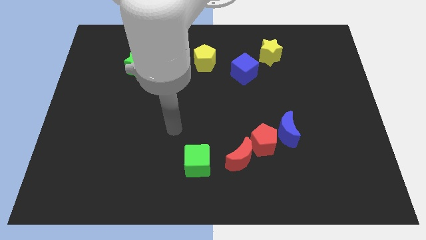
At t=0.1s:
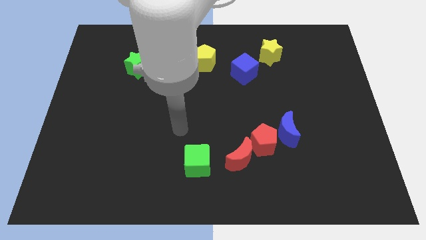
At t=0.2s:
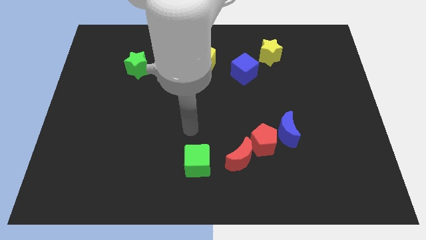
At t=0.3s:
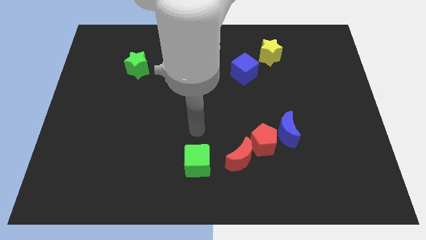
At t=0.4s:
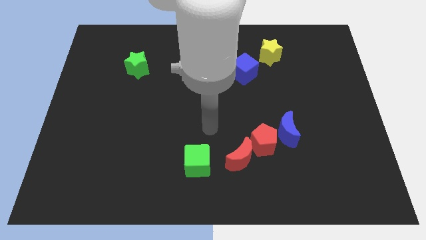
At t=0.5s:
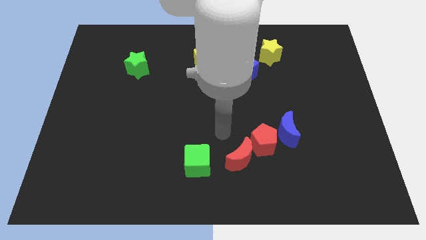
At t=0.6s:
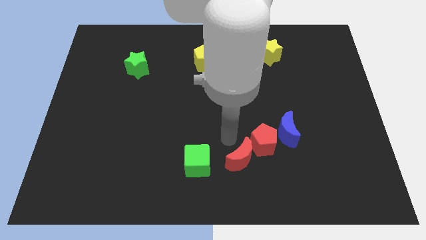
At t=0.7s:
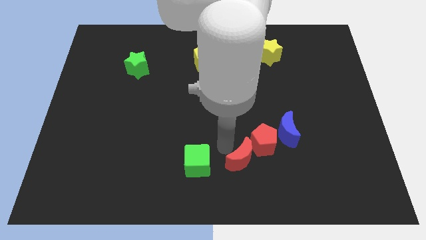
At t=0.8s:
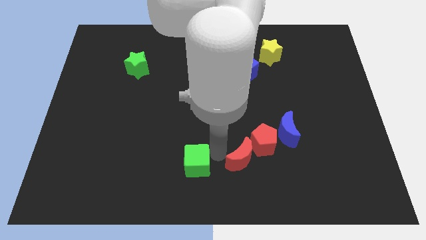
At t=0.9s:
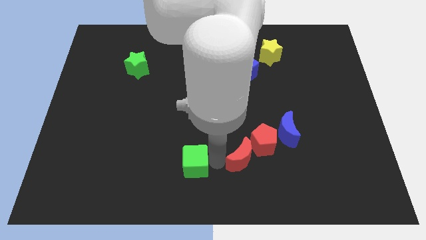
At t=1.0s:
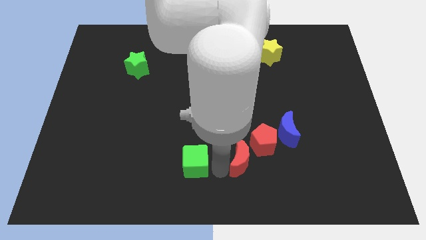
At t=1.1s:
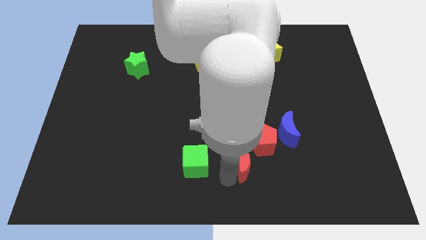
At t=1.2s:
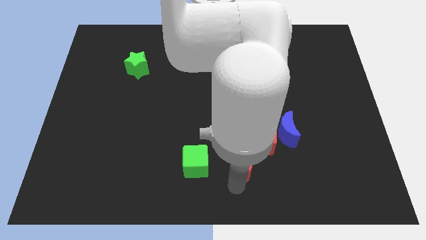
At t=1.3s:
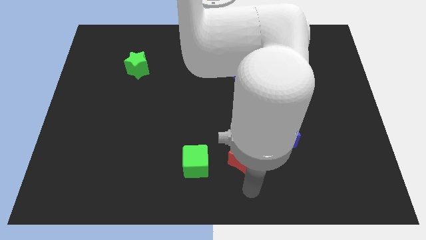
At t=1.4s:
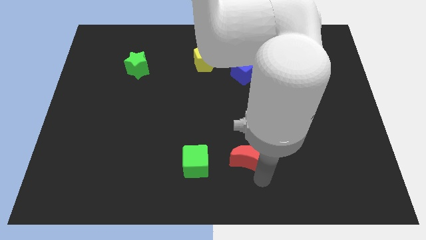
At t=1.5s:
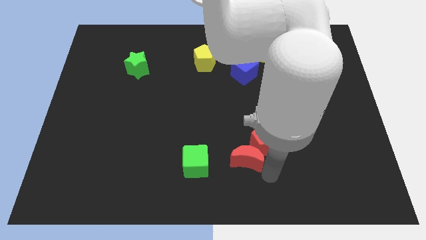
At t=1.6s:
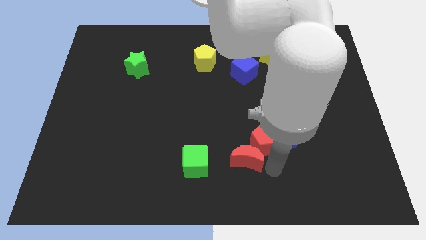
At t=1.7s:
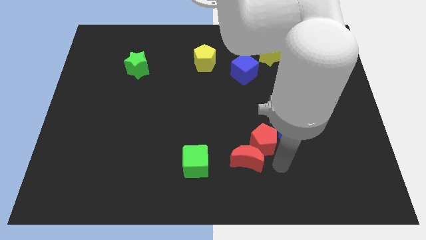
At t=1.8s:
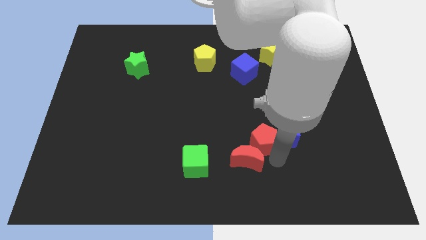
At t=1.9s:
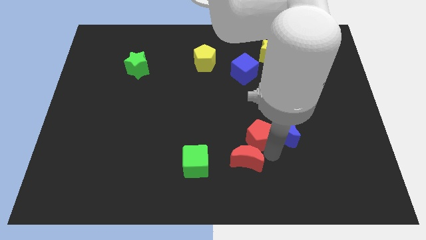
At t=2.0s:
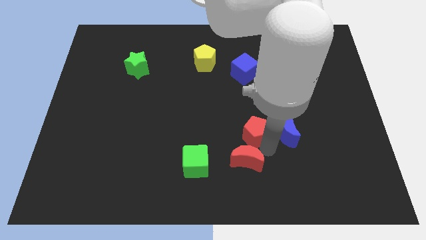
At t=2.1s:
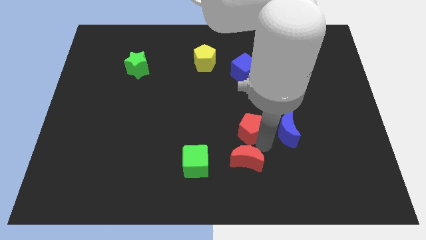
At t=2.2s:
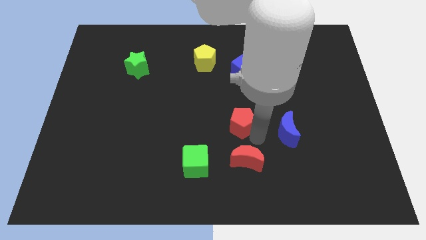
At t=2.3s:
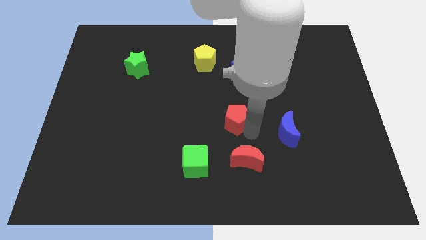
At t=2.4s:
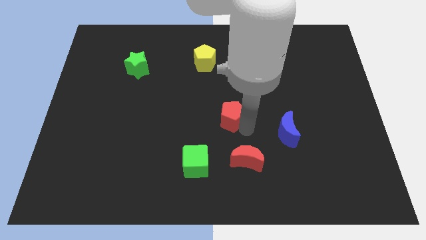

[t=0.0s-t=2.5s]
pull the red pentagon apart from the red moon and blue moon

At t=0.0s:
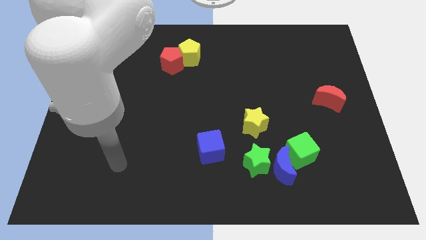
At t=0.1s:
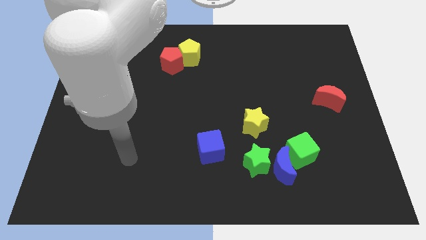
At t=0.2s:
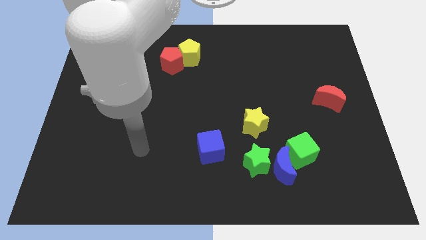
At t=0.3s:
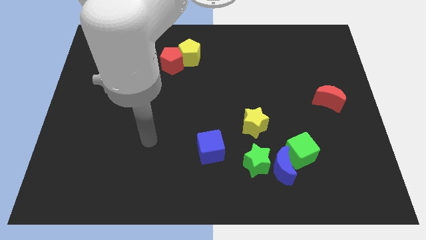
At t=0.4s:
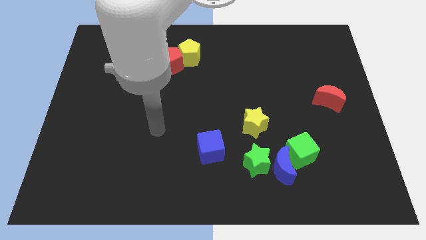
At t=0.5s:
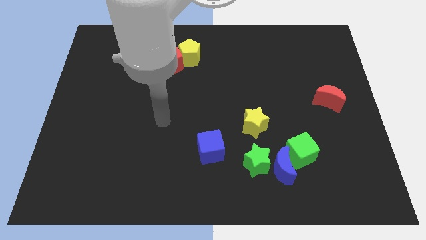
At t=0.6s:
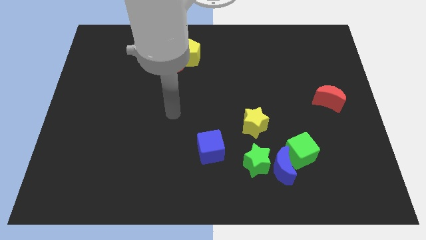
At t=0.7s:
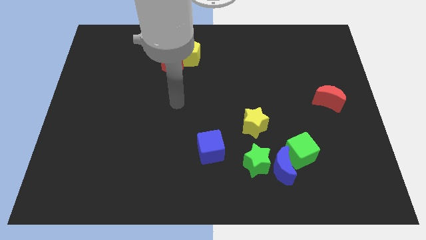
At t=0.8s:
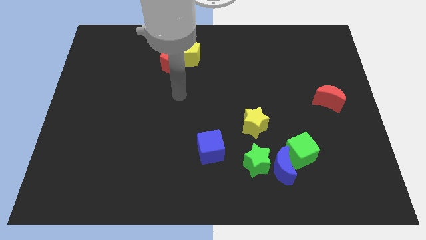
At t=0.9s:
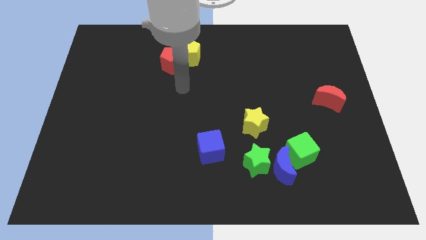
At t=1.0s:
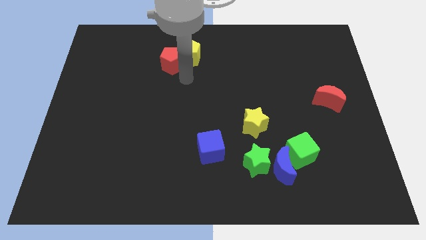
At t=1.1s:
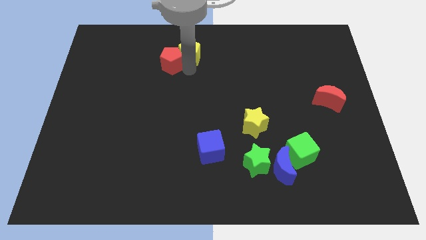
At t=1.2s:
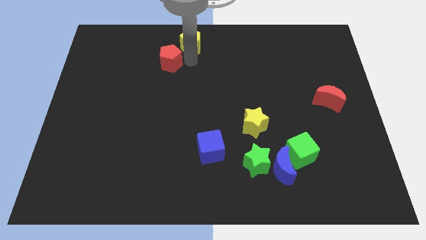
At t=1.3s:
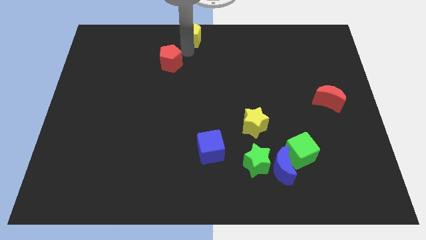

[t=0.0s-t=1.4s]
separate the red pentagon from the yellow pentagon

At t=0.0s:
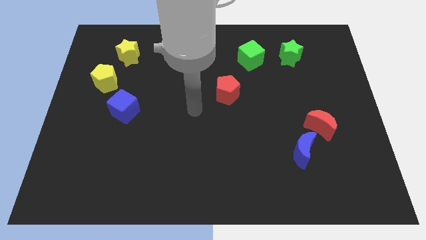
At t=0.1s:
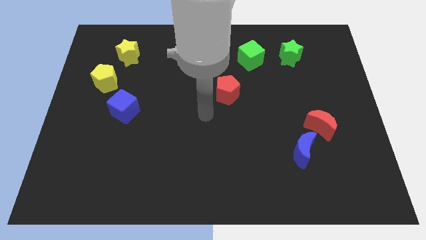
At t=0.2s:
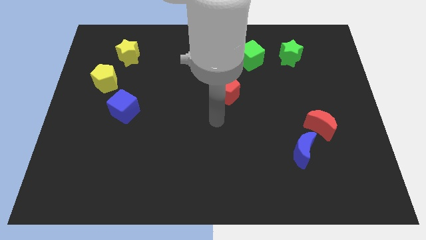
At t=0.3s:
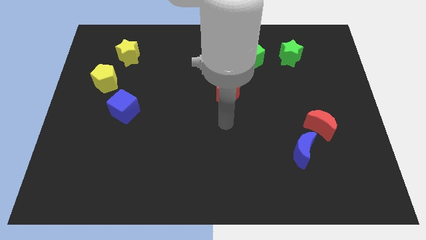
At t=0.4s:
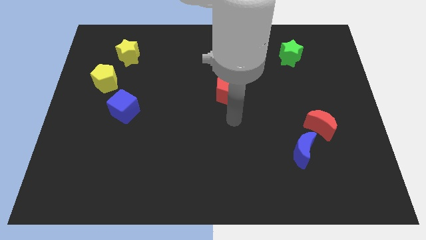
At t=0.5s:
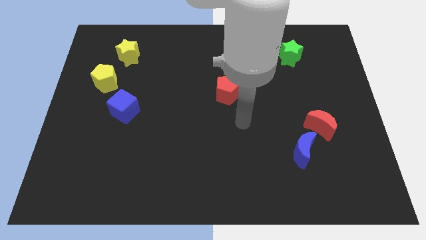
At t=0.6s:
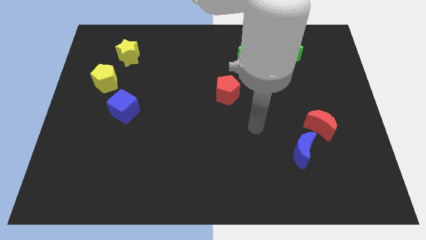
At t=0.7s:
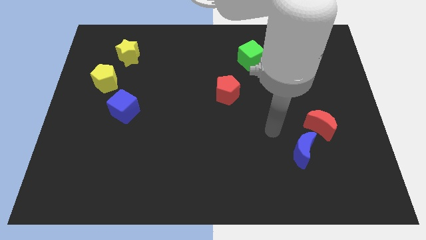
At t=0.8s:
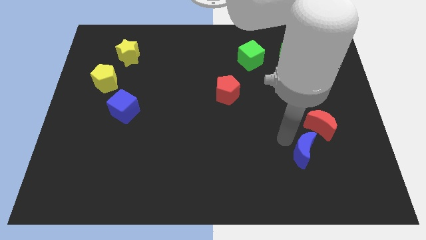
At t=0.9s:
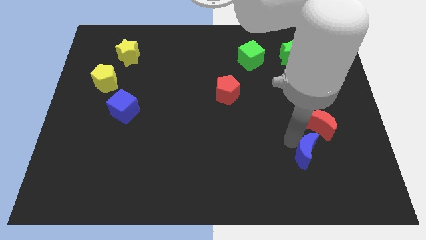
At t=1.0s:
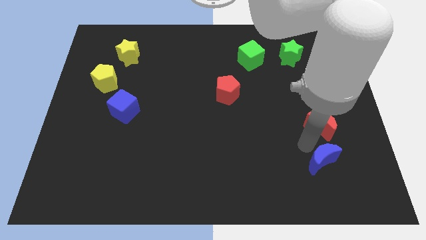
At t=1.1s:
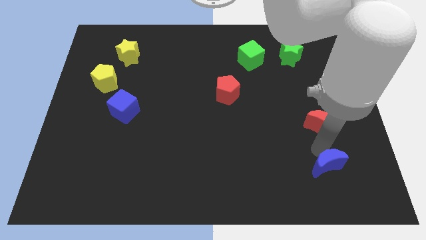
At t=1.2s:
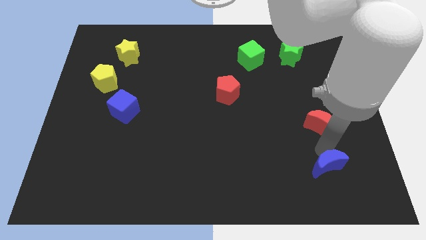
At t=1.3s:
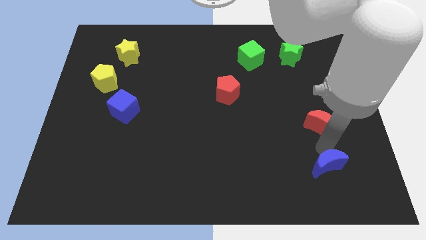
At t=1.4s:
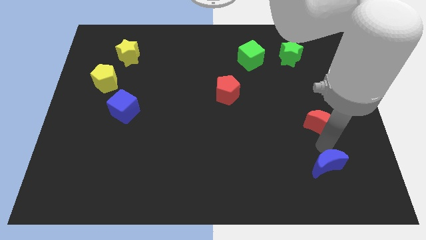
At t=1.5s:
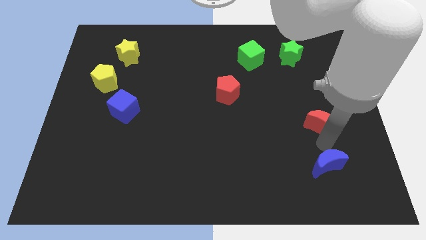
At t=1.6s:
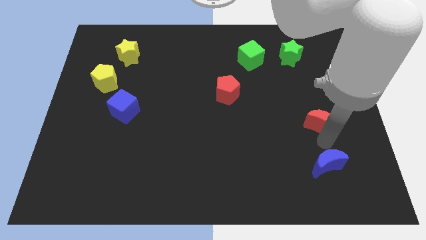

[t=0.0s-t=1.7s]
move the red moon away from the blue moon

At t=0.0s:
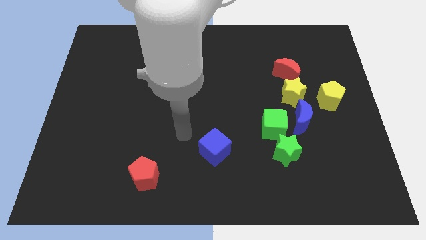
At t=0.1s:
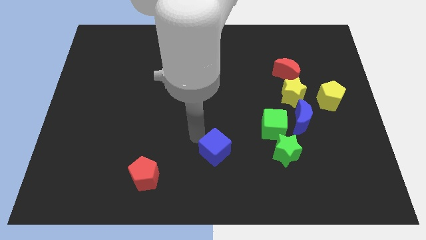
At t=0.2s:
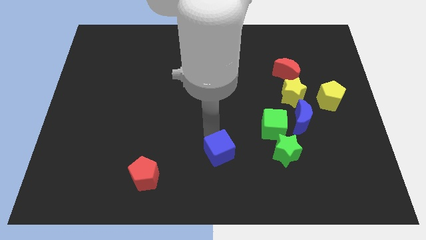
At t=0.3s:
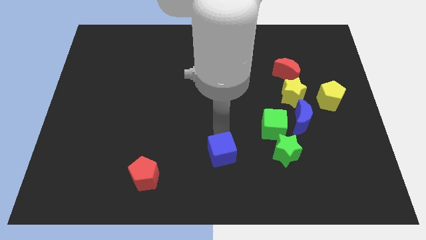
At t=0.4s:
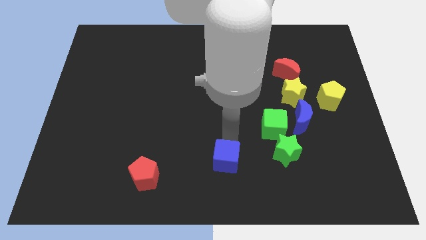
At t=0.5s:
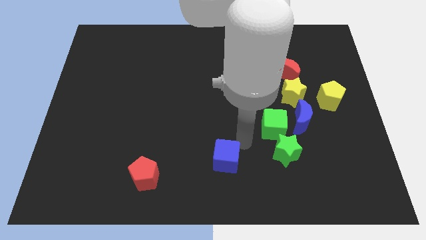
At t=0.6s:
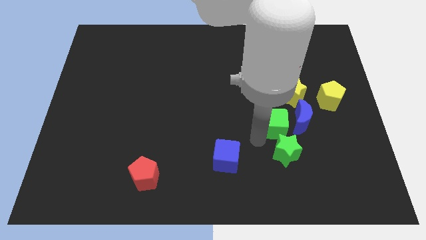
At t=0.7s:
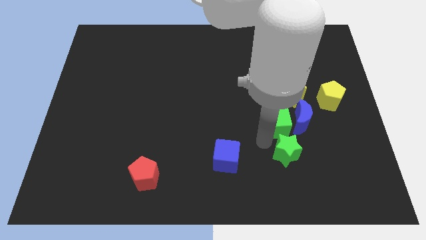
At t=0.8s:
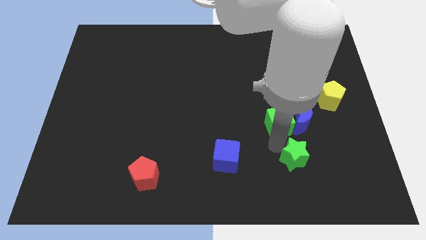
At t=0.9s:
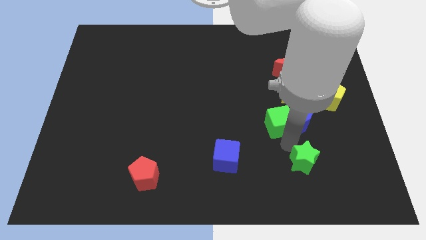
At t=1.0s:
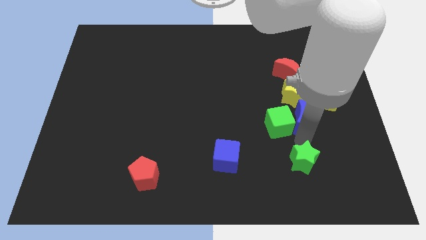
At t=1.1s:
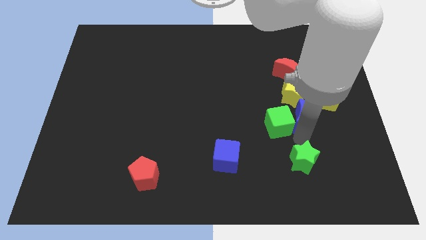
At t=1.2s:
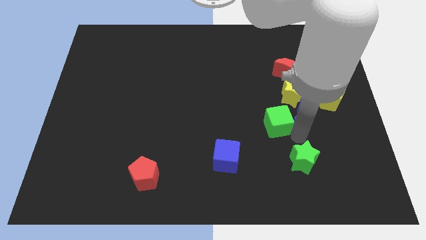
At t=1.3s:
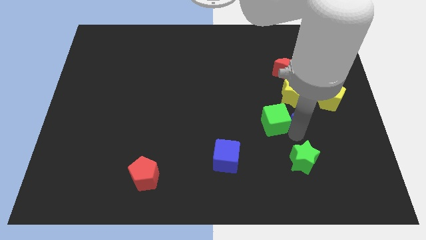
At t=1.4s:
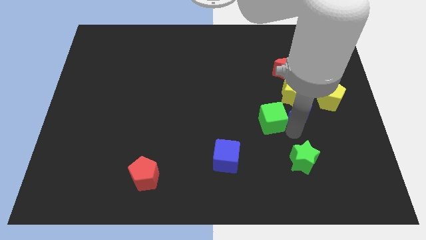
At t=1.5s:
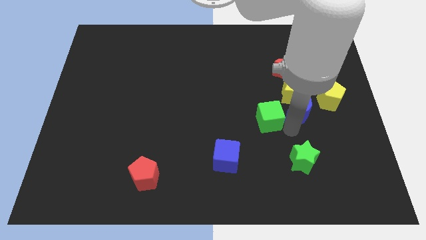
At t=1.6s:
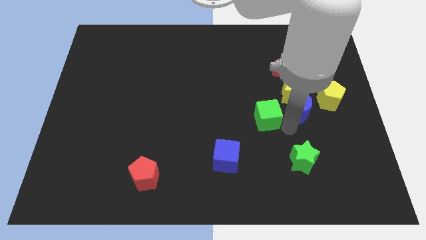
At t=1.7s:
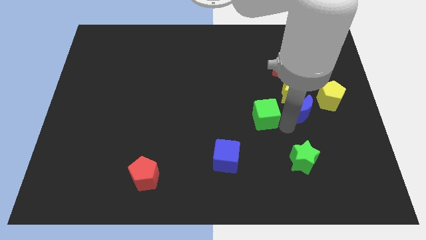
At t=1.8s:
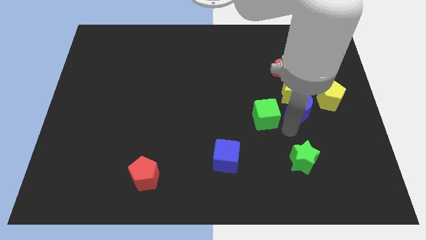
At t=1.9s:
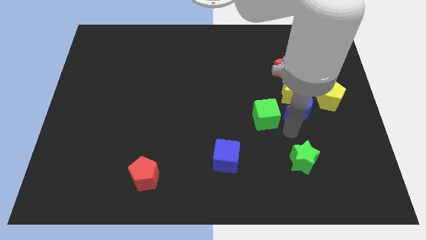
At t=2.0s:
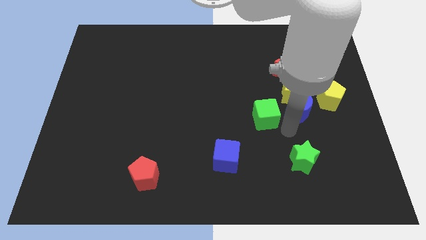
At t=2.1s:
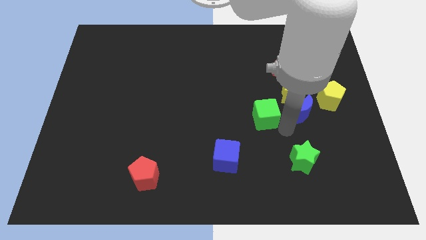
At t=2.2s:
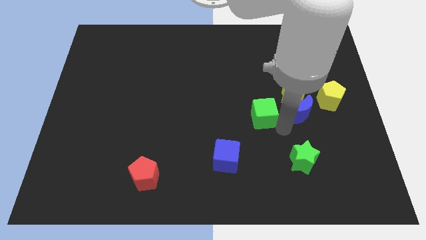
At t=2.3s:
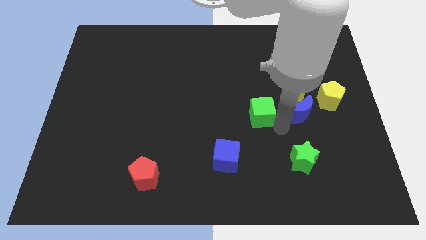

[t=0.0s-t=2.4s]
pull the green cube apart from the green star and blue moon

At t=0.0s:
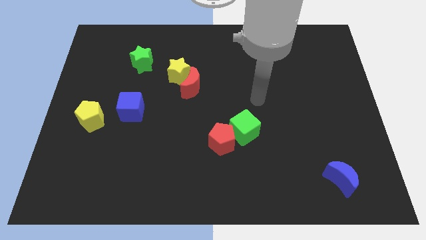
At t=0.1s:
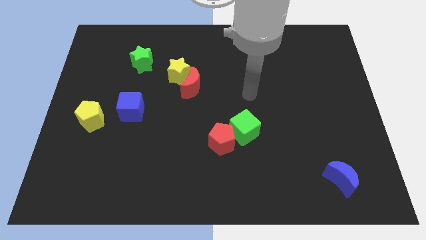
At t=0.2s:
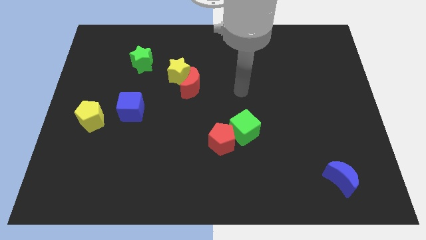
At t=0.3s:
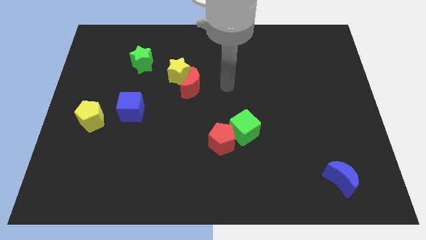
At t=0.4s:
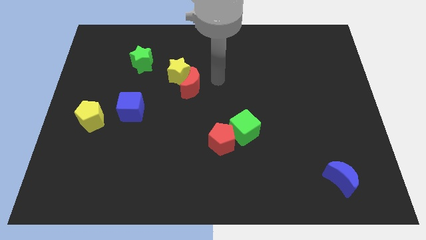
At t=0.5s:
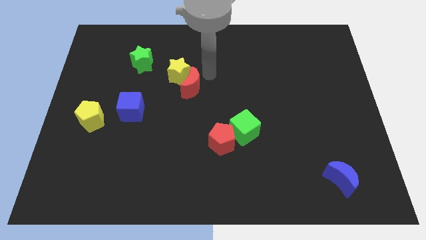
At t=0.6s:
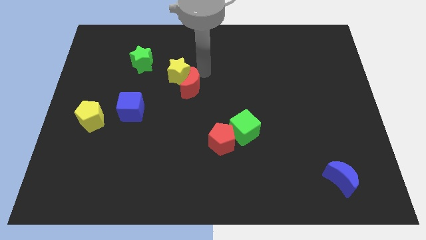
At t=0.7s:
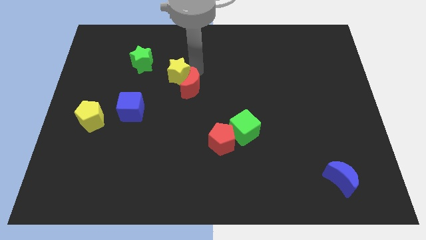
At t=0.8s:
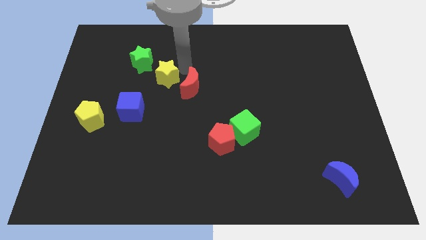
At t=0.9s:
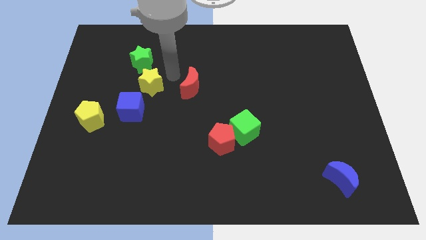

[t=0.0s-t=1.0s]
separate the red moon from the yellow star

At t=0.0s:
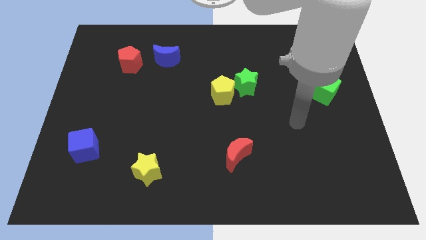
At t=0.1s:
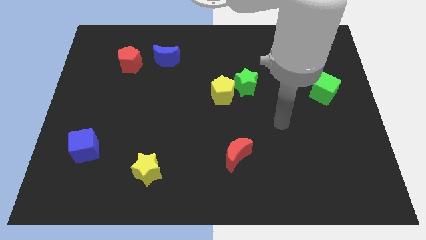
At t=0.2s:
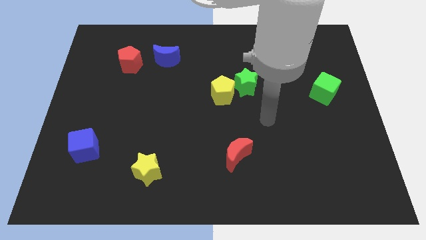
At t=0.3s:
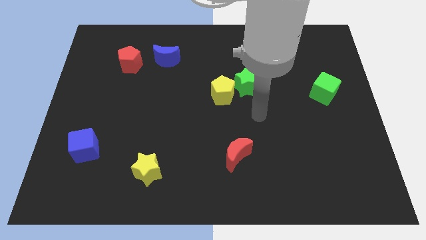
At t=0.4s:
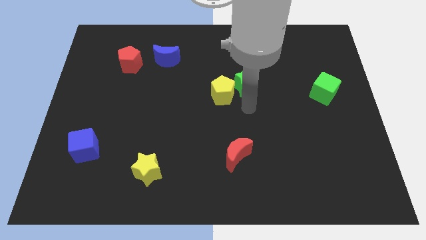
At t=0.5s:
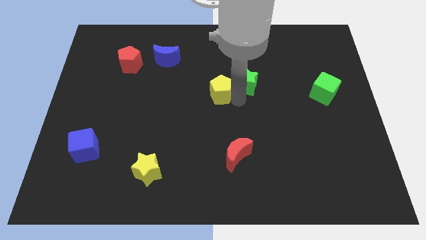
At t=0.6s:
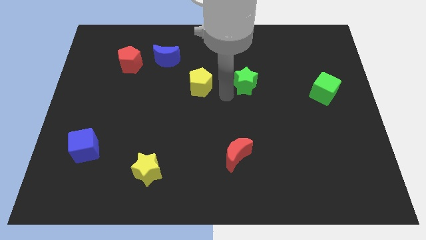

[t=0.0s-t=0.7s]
move the green star away from the yellow pentagon
